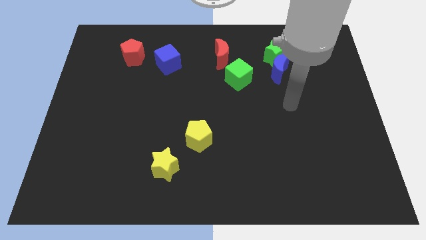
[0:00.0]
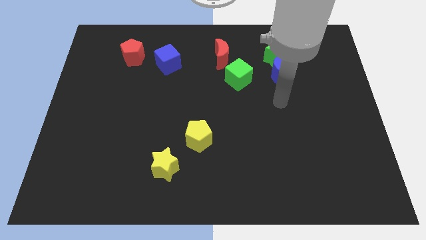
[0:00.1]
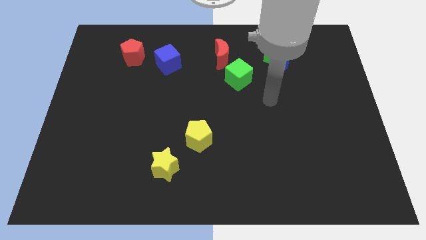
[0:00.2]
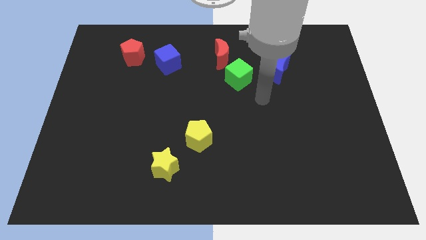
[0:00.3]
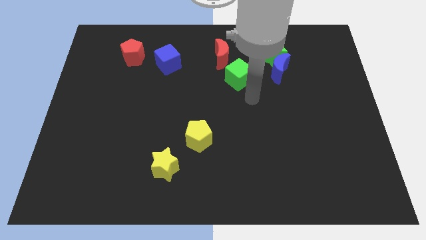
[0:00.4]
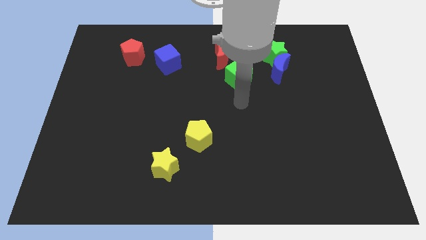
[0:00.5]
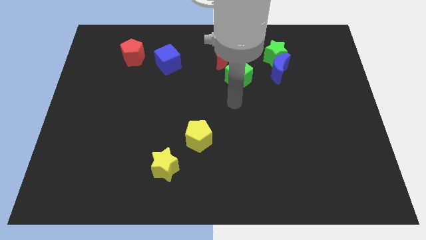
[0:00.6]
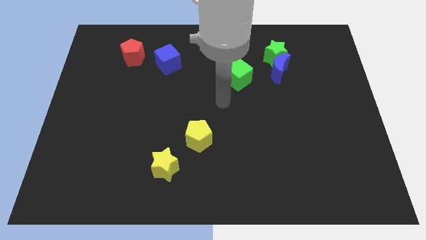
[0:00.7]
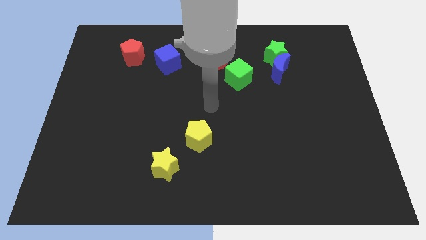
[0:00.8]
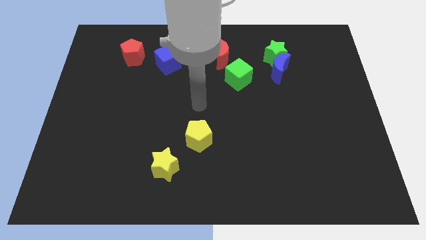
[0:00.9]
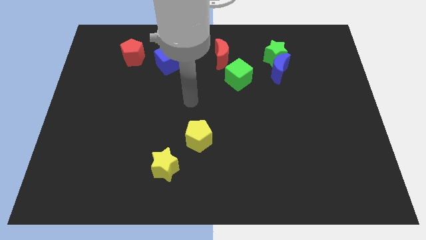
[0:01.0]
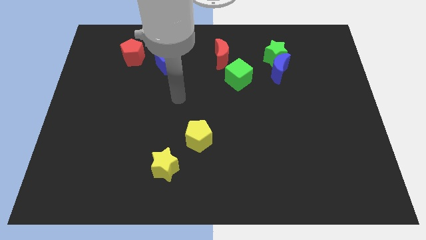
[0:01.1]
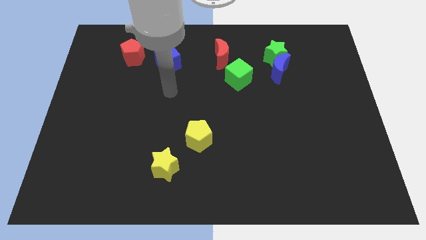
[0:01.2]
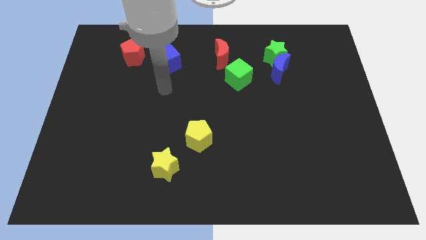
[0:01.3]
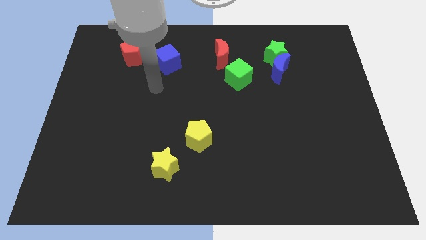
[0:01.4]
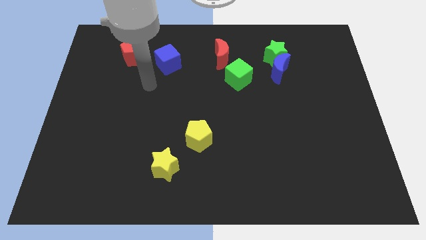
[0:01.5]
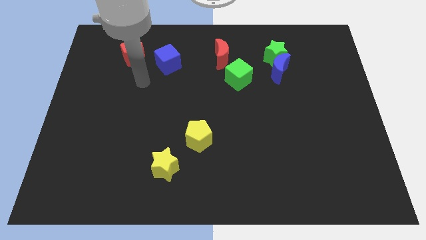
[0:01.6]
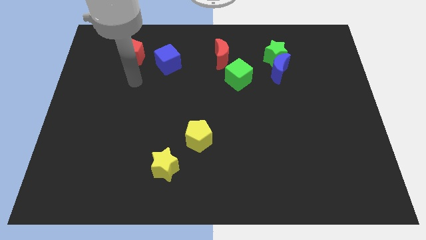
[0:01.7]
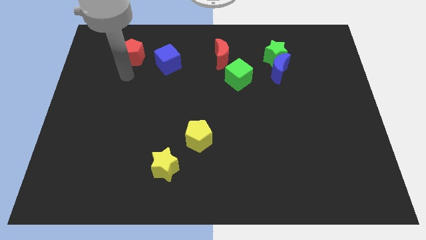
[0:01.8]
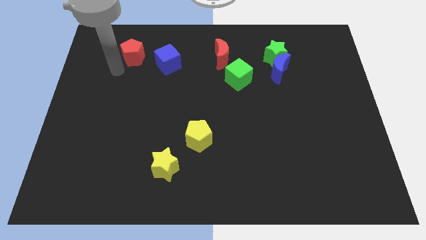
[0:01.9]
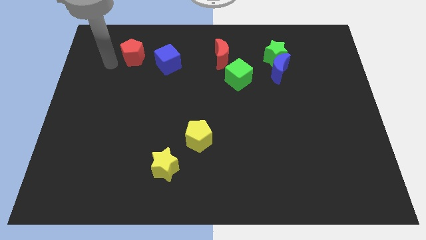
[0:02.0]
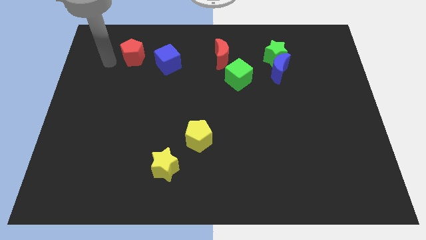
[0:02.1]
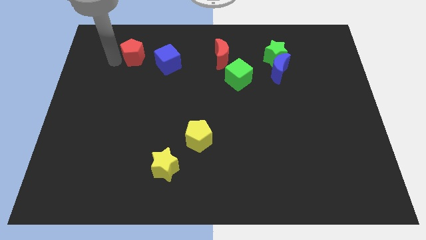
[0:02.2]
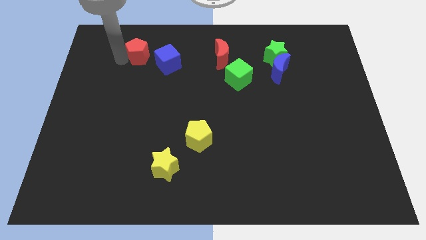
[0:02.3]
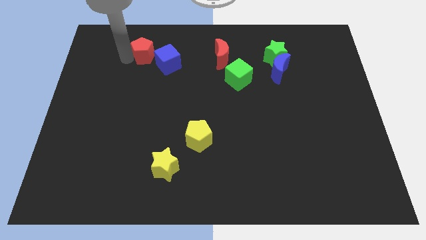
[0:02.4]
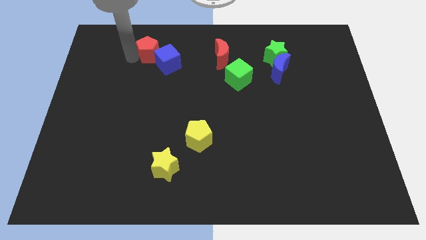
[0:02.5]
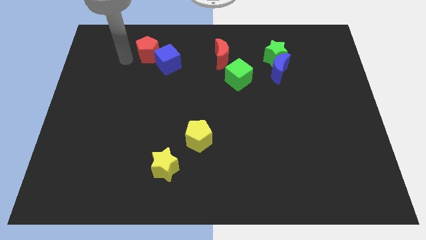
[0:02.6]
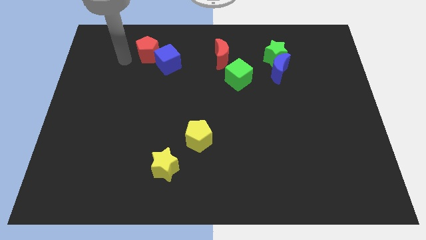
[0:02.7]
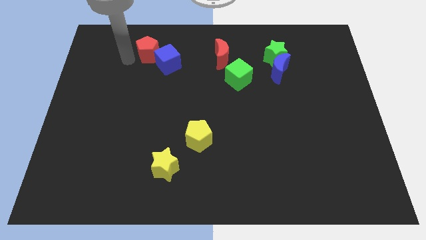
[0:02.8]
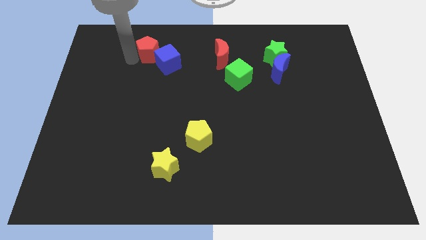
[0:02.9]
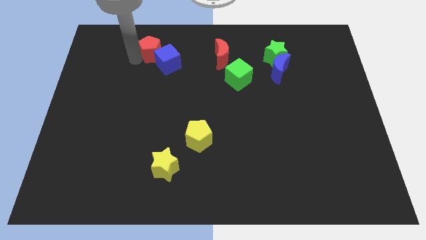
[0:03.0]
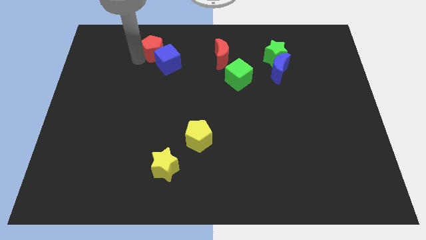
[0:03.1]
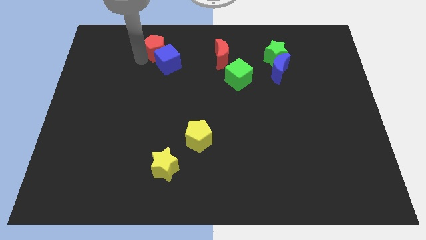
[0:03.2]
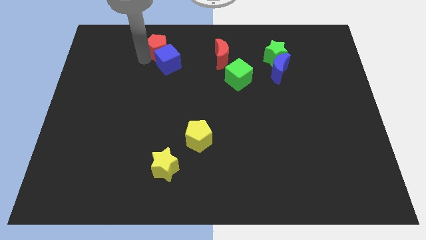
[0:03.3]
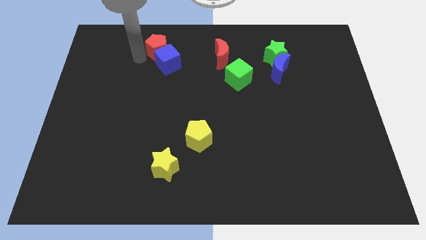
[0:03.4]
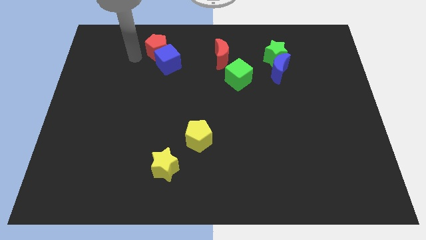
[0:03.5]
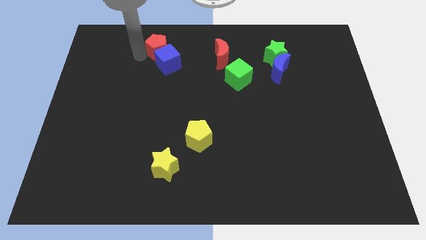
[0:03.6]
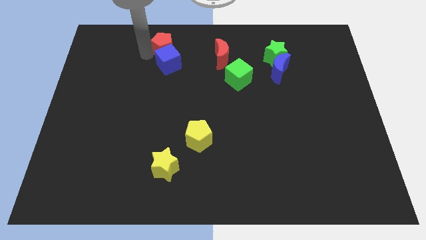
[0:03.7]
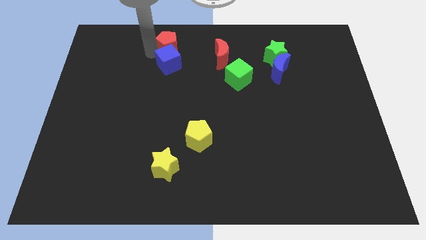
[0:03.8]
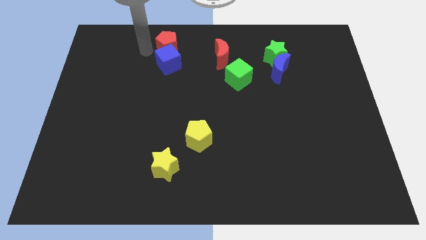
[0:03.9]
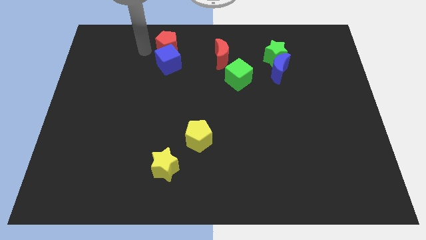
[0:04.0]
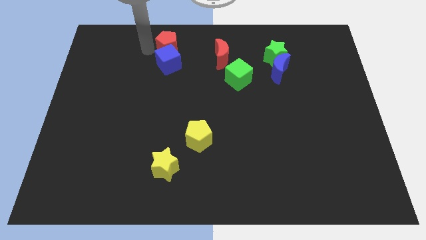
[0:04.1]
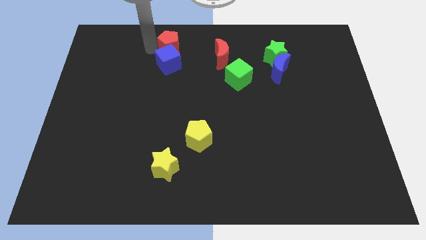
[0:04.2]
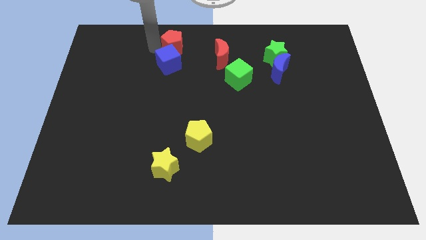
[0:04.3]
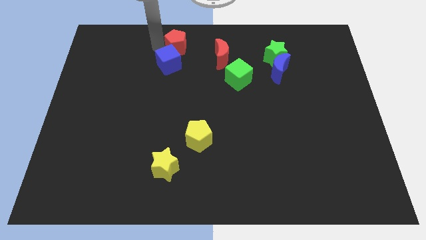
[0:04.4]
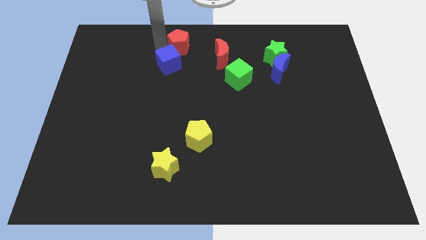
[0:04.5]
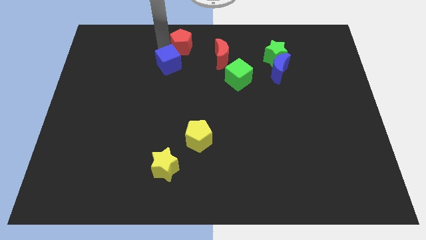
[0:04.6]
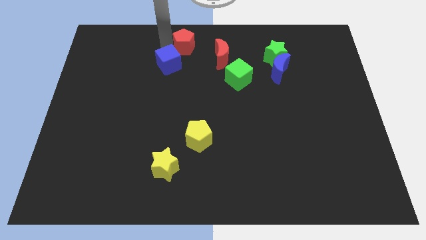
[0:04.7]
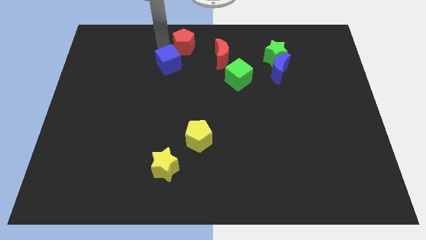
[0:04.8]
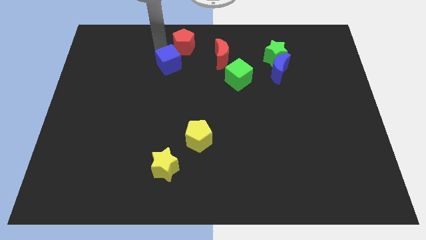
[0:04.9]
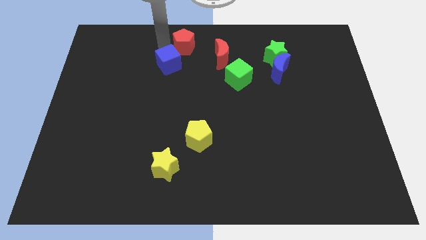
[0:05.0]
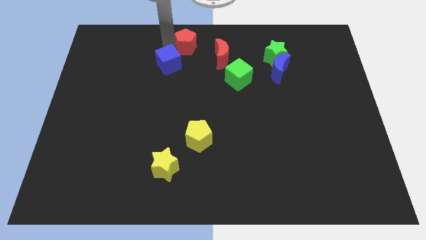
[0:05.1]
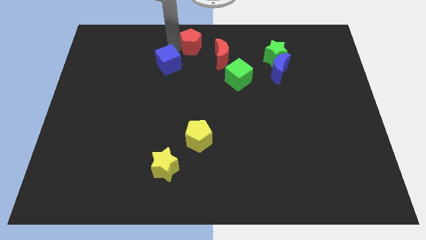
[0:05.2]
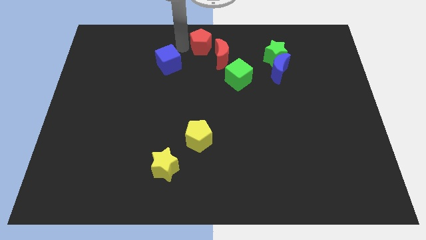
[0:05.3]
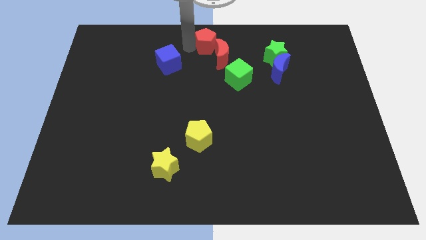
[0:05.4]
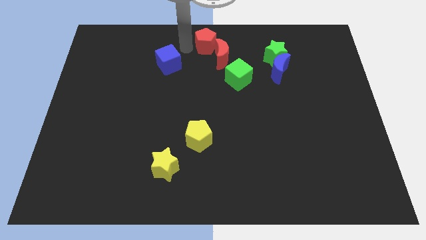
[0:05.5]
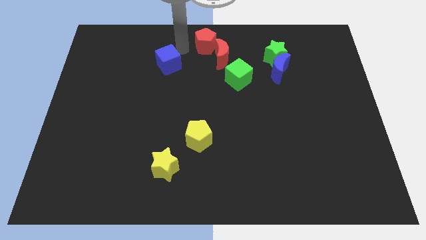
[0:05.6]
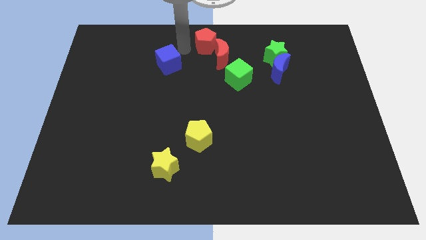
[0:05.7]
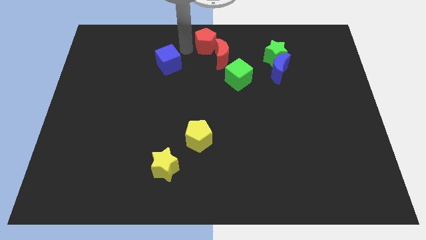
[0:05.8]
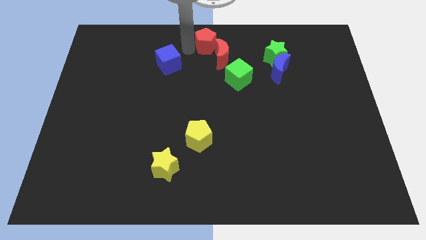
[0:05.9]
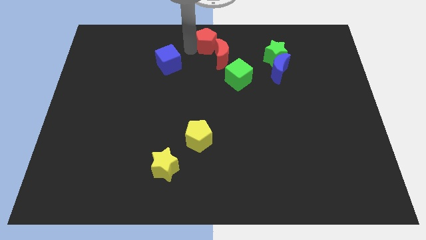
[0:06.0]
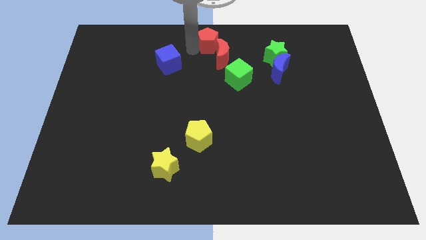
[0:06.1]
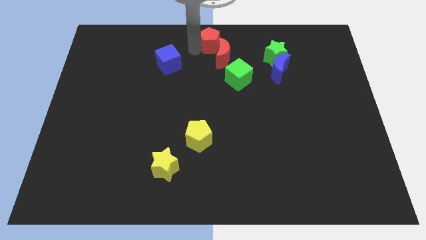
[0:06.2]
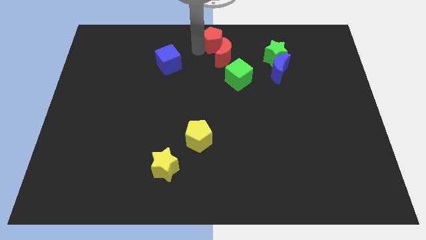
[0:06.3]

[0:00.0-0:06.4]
move the red pentagon to the right

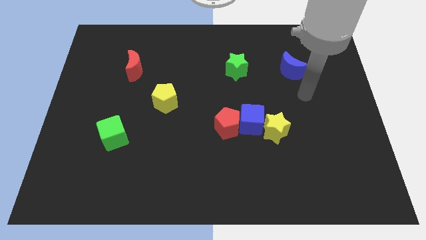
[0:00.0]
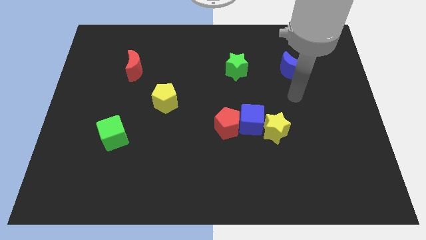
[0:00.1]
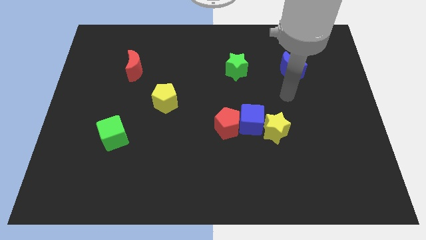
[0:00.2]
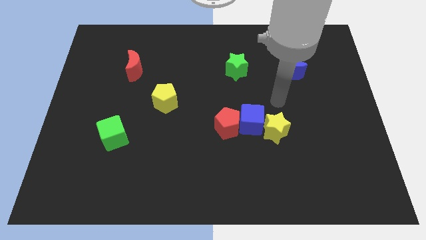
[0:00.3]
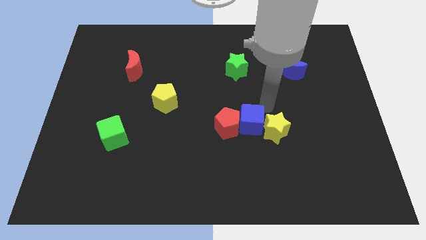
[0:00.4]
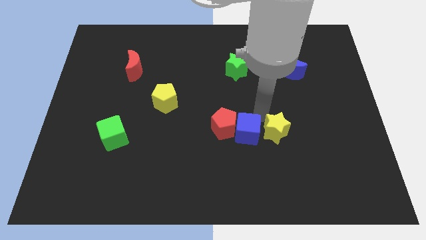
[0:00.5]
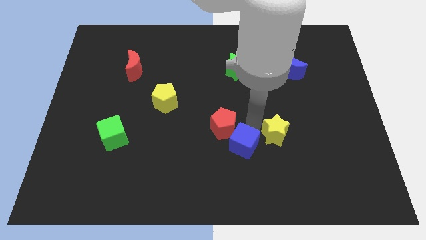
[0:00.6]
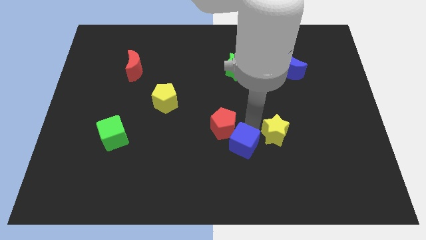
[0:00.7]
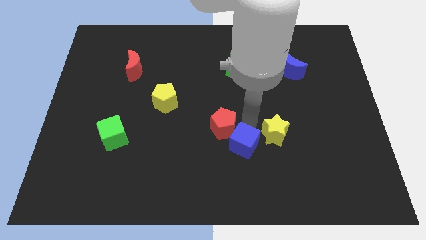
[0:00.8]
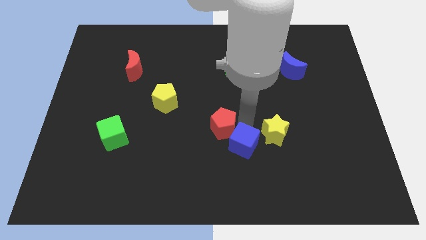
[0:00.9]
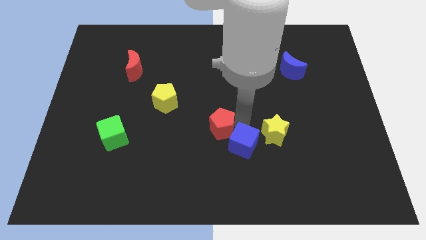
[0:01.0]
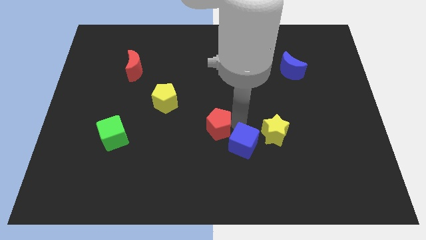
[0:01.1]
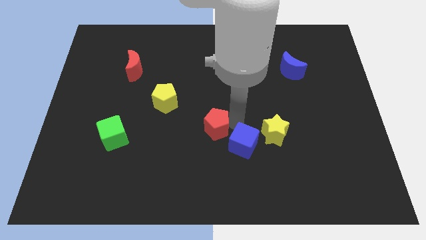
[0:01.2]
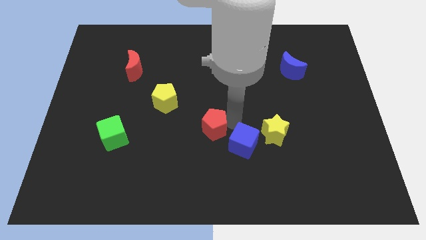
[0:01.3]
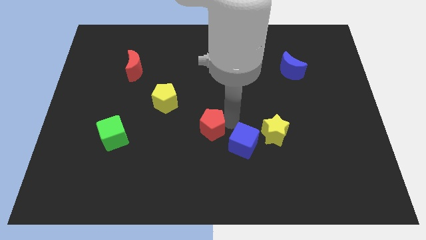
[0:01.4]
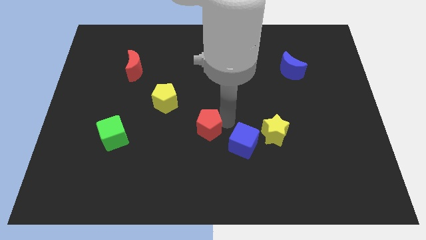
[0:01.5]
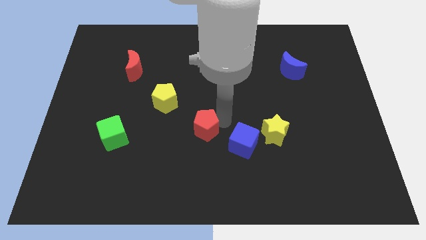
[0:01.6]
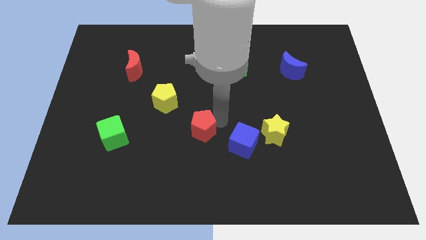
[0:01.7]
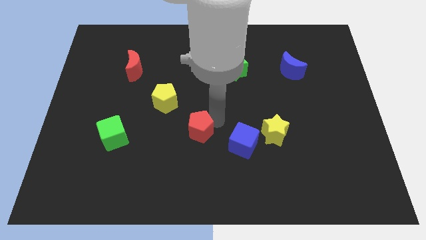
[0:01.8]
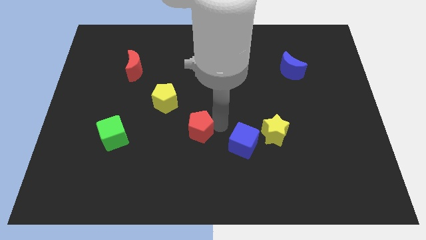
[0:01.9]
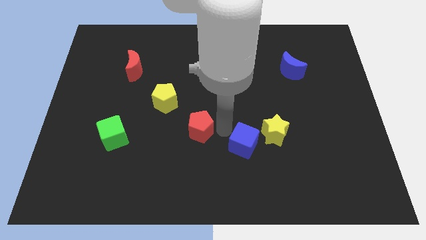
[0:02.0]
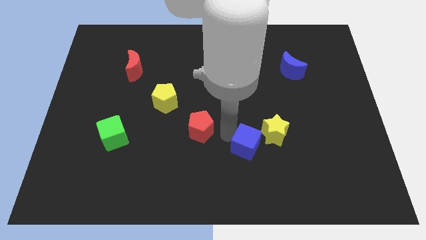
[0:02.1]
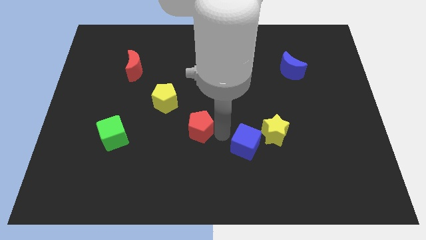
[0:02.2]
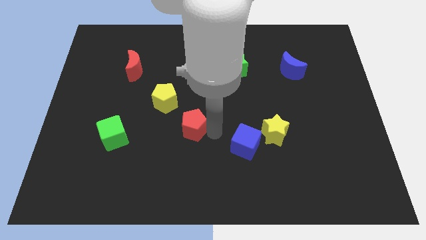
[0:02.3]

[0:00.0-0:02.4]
slightly slide the red pentagon left
